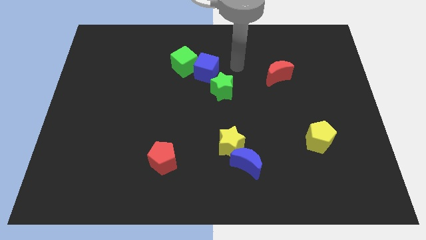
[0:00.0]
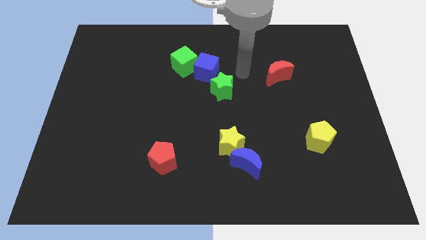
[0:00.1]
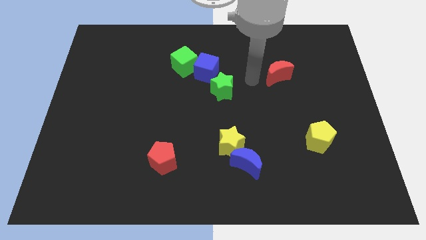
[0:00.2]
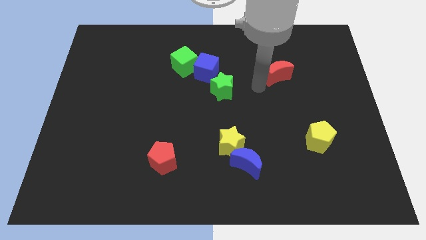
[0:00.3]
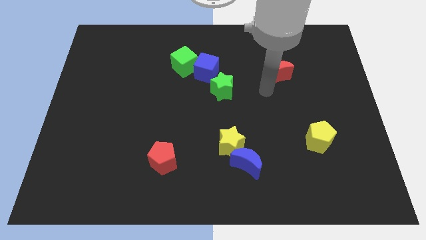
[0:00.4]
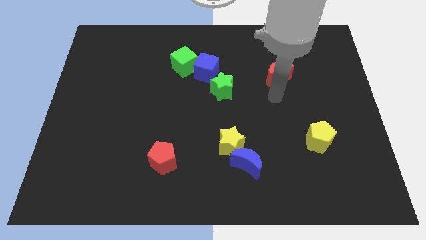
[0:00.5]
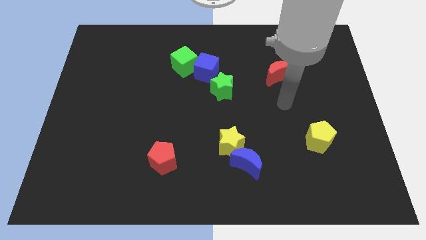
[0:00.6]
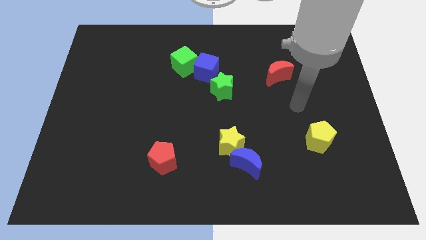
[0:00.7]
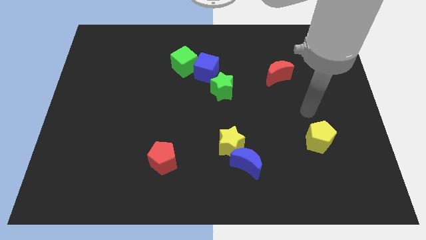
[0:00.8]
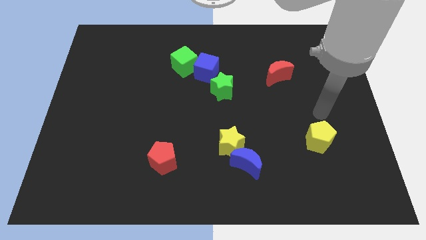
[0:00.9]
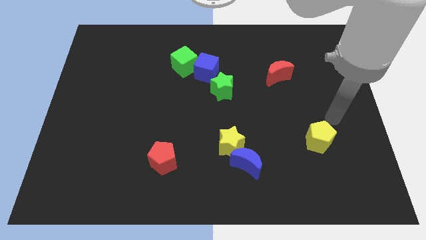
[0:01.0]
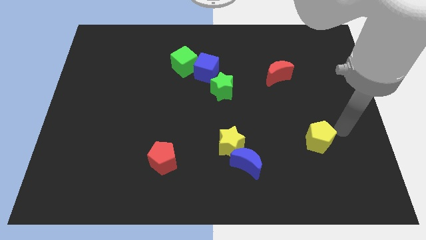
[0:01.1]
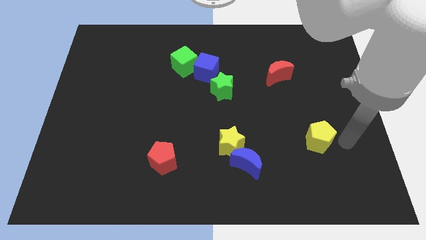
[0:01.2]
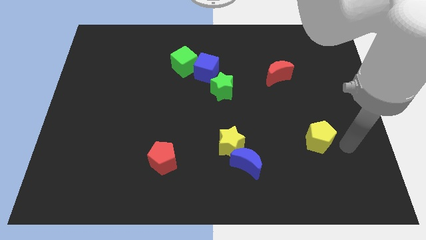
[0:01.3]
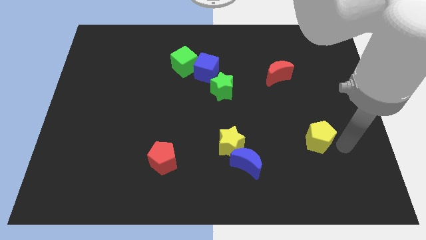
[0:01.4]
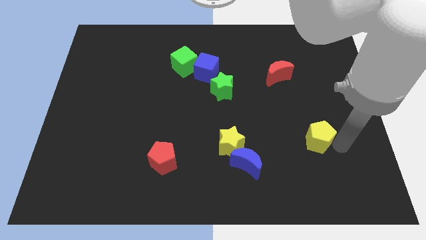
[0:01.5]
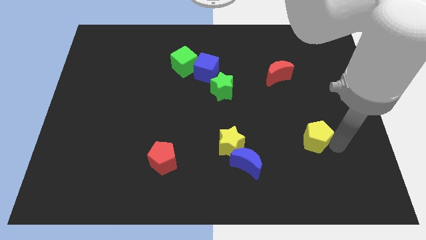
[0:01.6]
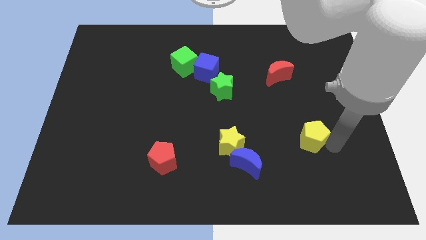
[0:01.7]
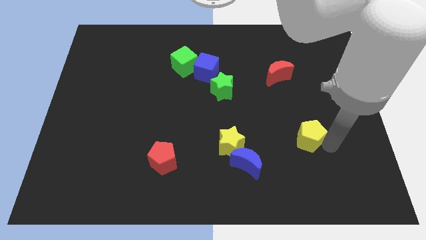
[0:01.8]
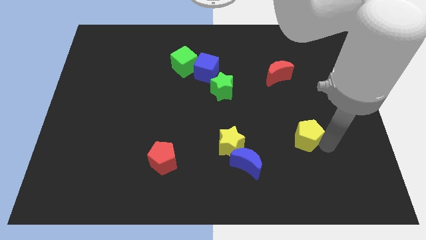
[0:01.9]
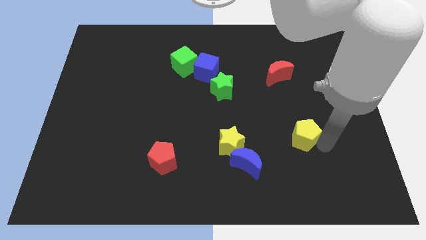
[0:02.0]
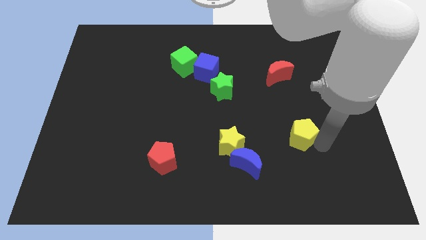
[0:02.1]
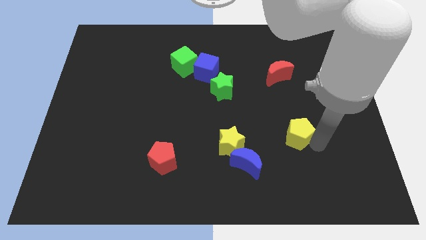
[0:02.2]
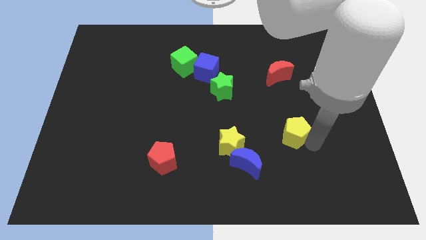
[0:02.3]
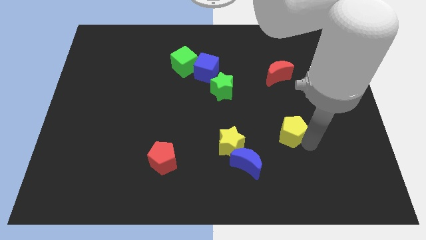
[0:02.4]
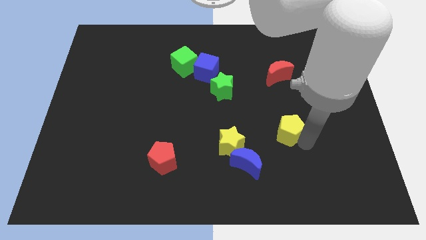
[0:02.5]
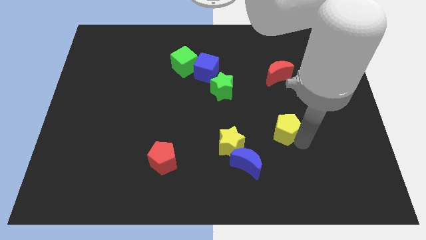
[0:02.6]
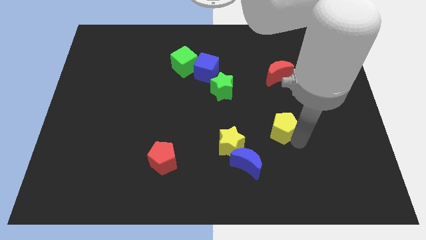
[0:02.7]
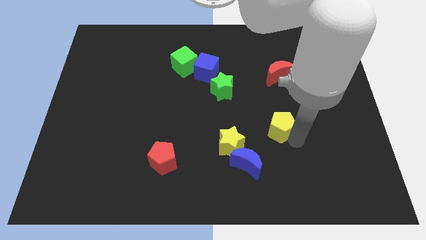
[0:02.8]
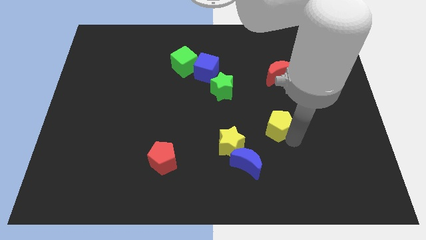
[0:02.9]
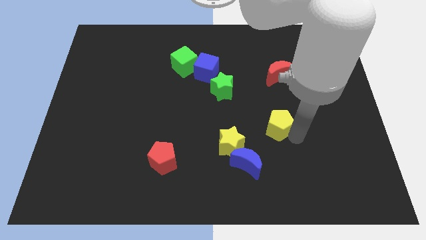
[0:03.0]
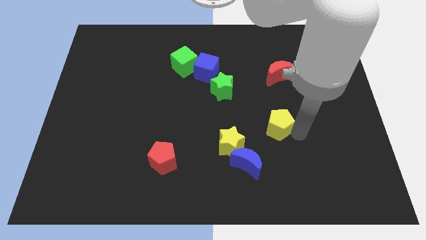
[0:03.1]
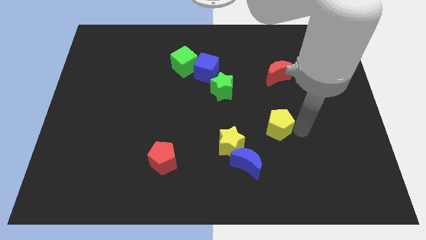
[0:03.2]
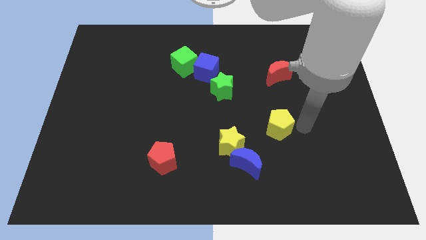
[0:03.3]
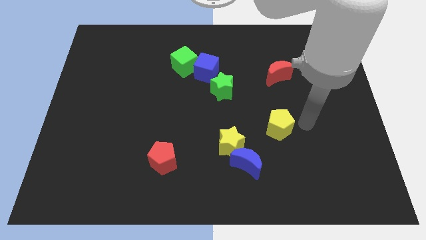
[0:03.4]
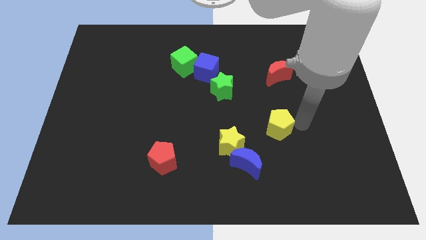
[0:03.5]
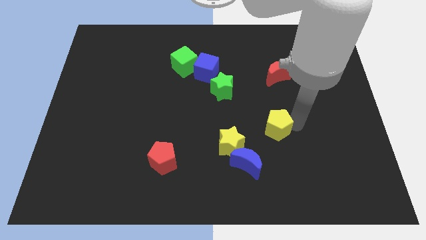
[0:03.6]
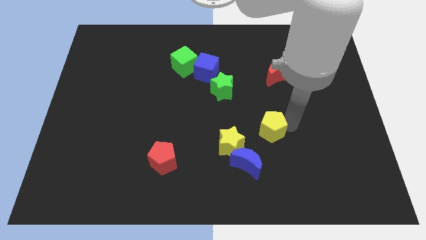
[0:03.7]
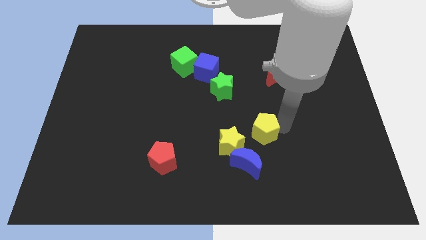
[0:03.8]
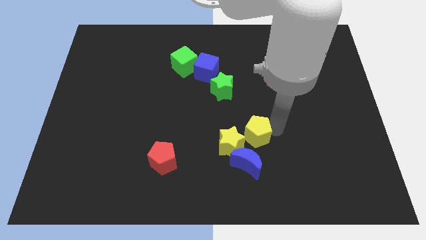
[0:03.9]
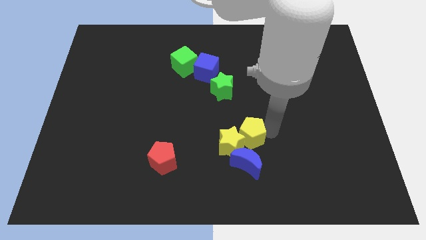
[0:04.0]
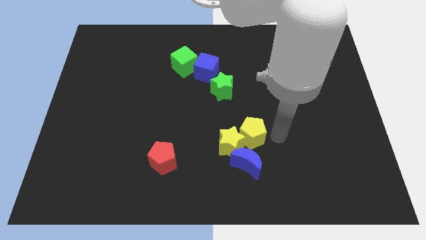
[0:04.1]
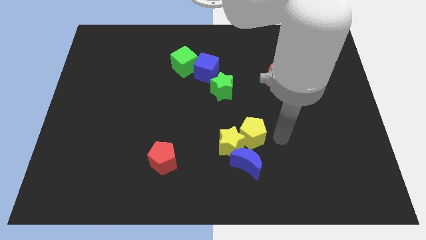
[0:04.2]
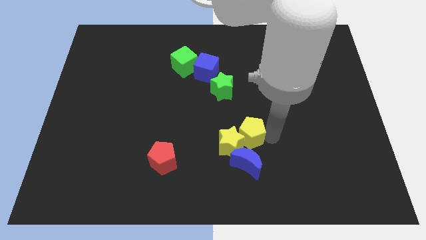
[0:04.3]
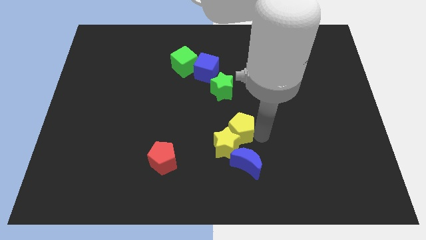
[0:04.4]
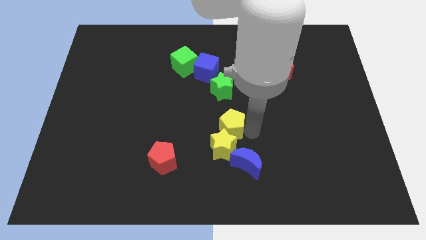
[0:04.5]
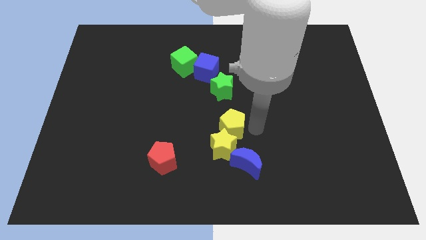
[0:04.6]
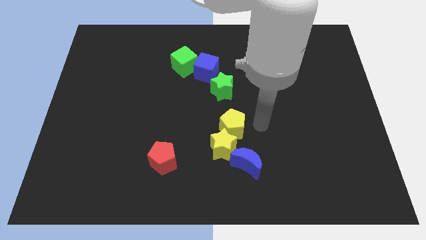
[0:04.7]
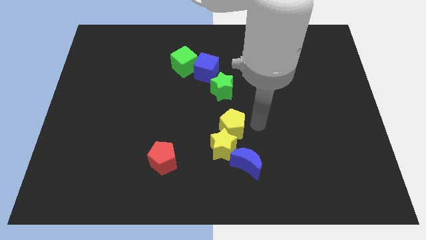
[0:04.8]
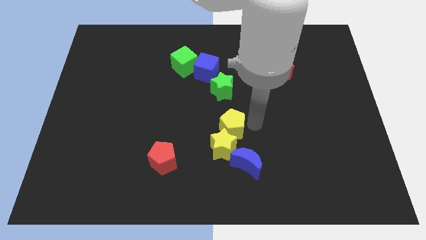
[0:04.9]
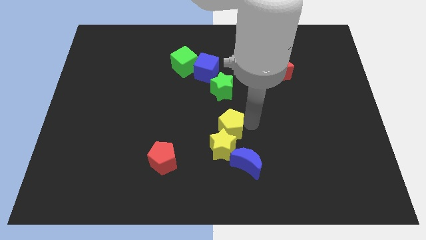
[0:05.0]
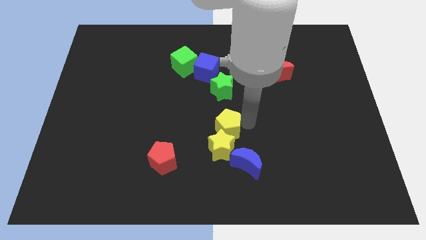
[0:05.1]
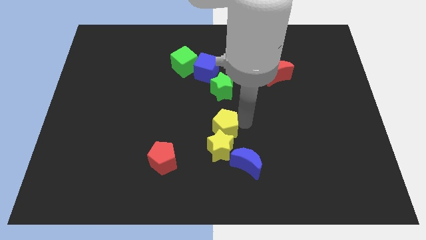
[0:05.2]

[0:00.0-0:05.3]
move the yellow pentagon left

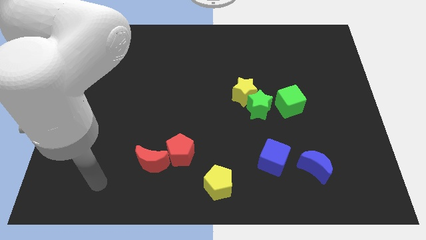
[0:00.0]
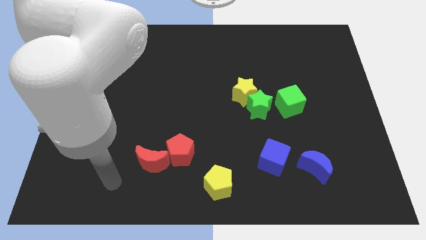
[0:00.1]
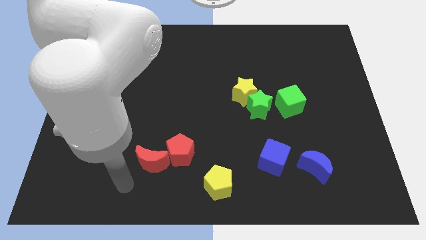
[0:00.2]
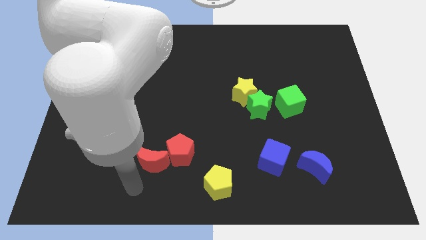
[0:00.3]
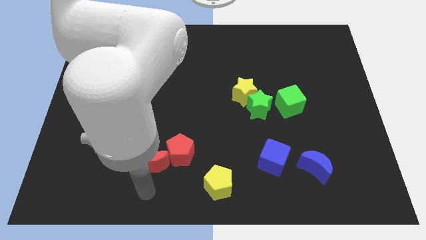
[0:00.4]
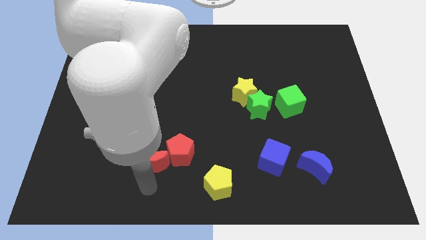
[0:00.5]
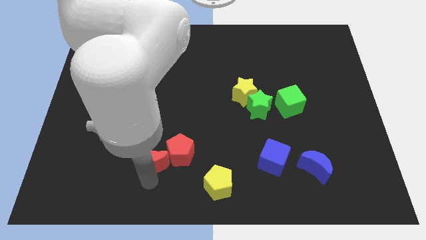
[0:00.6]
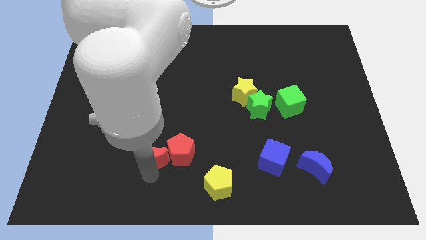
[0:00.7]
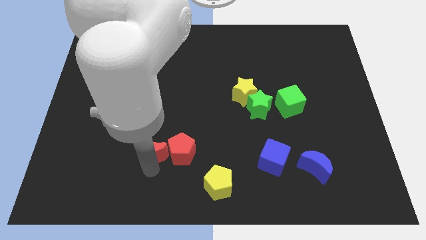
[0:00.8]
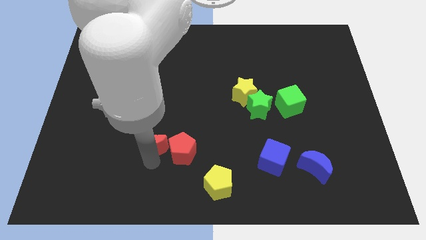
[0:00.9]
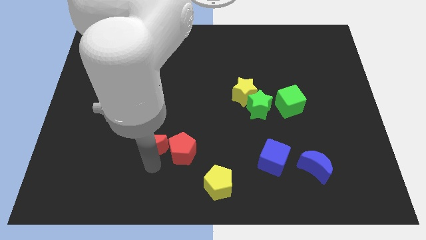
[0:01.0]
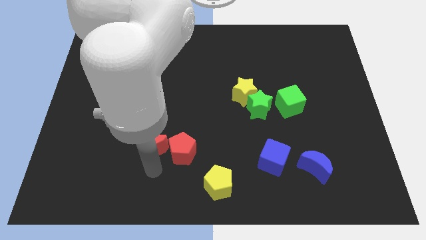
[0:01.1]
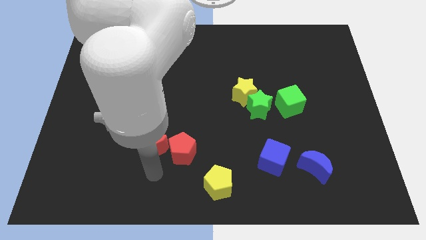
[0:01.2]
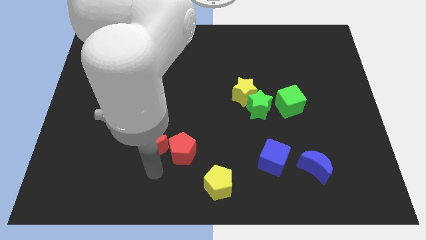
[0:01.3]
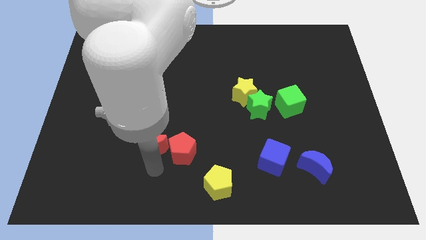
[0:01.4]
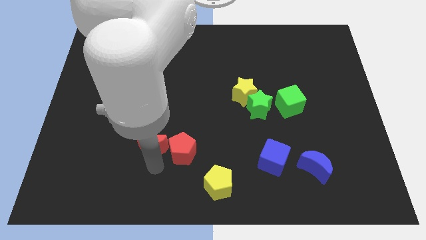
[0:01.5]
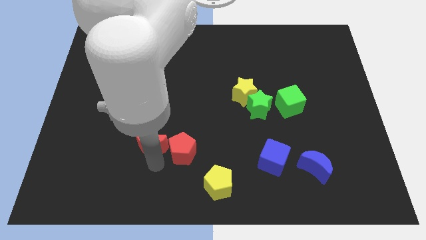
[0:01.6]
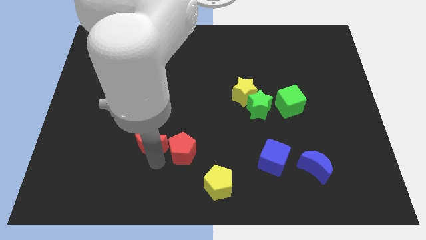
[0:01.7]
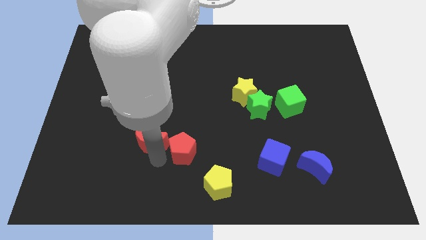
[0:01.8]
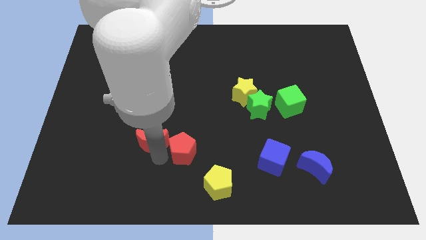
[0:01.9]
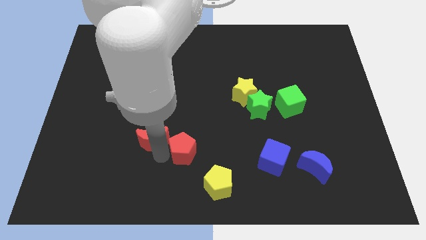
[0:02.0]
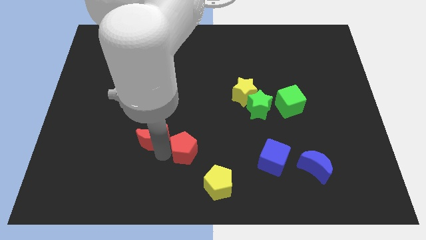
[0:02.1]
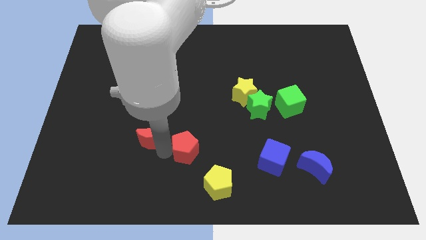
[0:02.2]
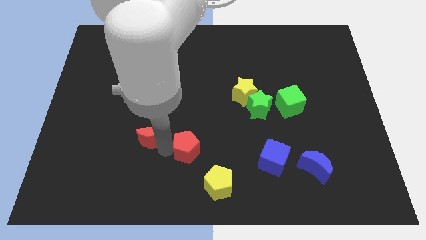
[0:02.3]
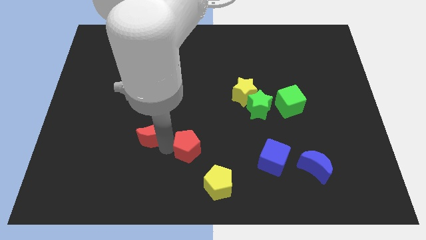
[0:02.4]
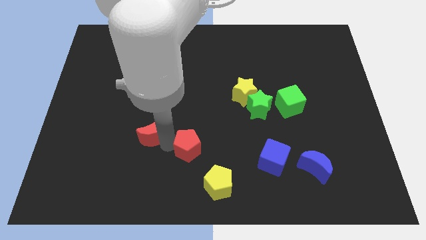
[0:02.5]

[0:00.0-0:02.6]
slightly slide the red moon up

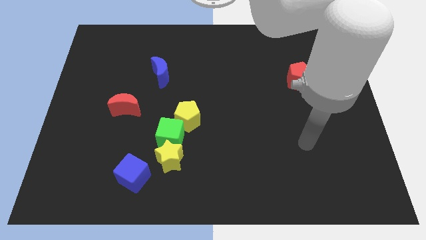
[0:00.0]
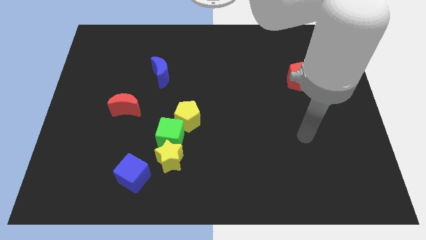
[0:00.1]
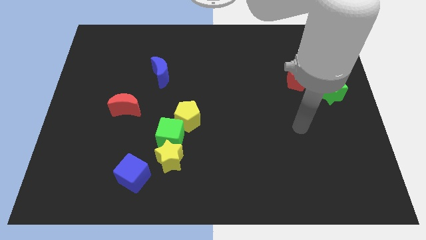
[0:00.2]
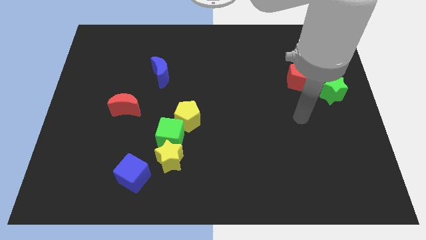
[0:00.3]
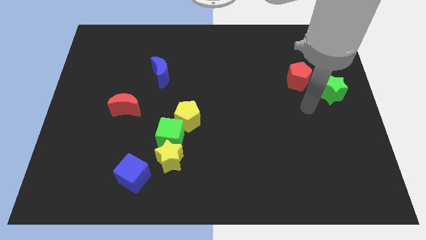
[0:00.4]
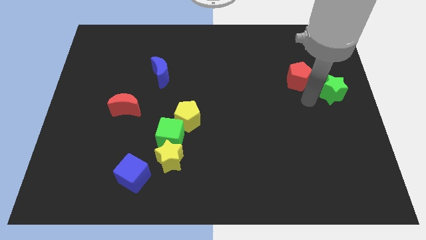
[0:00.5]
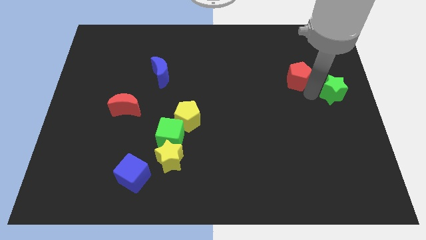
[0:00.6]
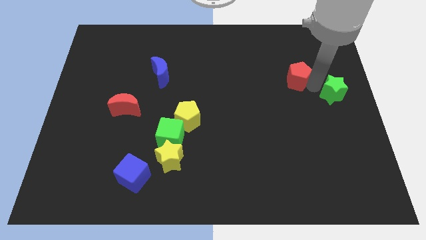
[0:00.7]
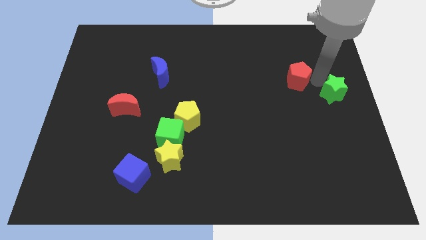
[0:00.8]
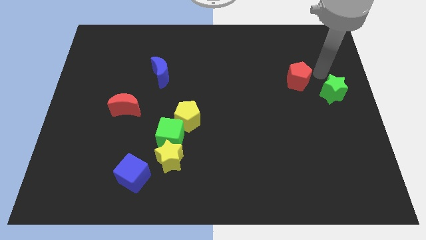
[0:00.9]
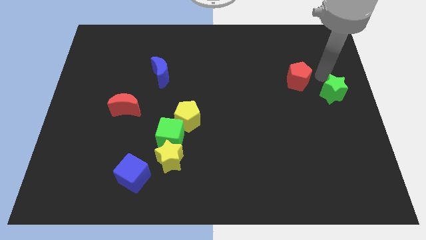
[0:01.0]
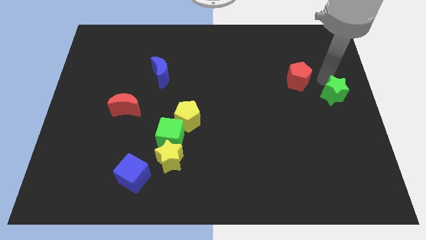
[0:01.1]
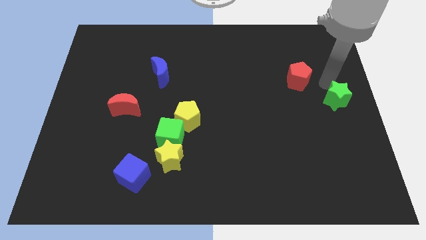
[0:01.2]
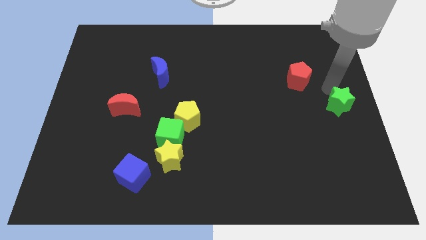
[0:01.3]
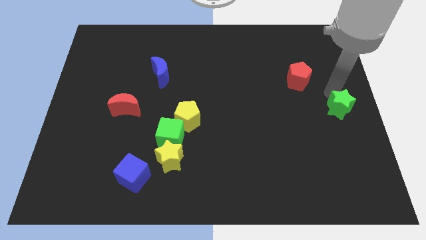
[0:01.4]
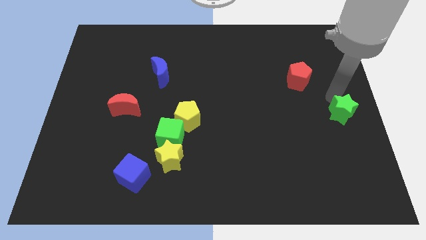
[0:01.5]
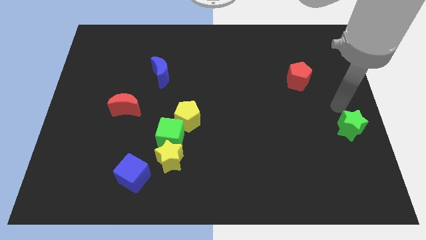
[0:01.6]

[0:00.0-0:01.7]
slightly move the green star downwards
